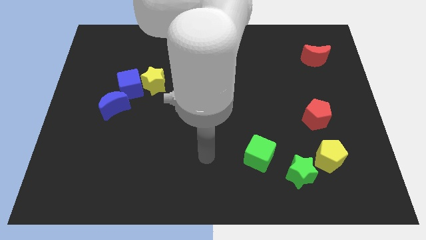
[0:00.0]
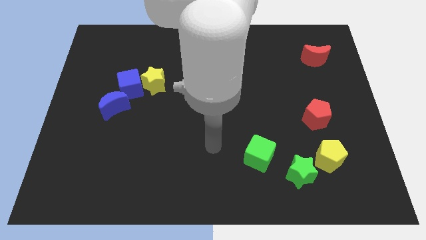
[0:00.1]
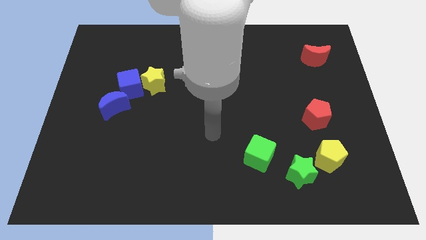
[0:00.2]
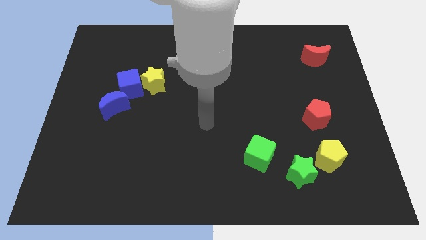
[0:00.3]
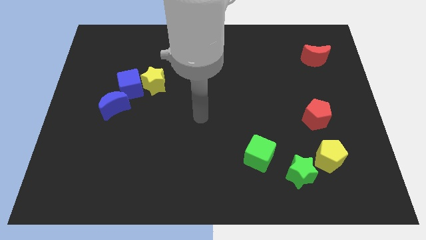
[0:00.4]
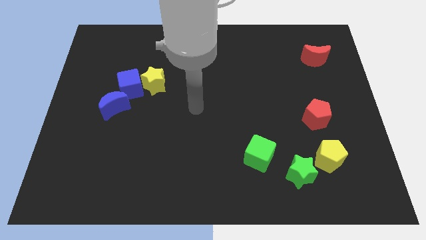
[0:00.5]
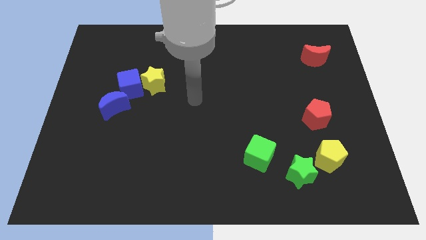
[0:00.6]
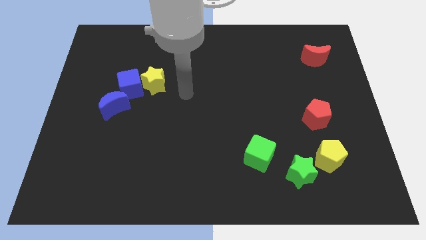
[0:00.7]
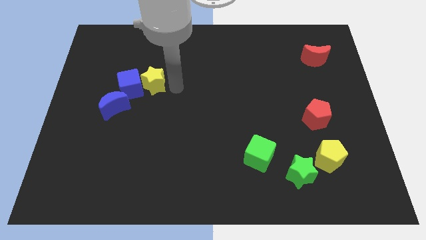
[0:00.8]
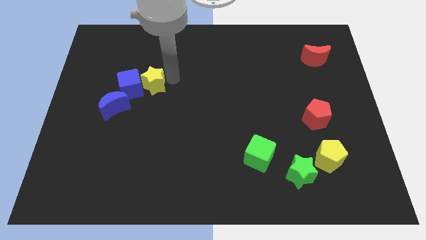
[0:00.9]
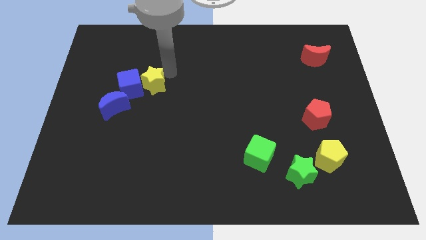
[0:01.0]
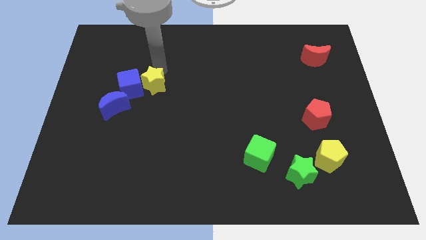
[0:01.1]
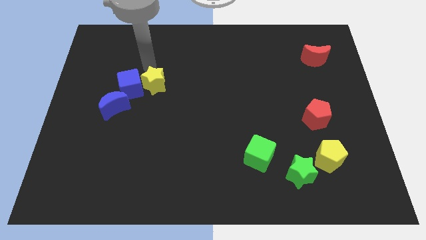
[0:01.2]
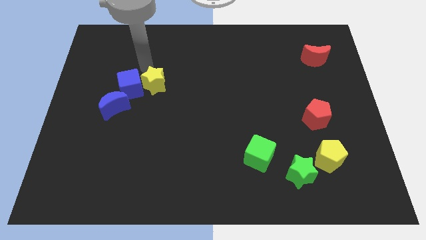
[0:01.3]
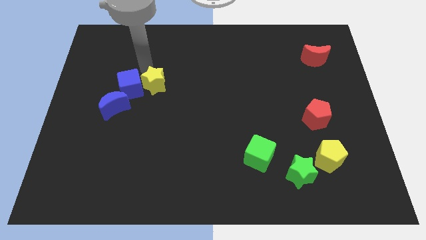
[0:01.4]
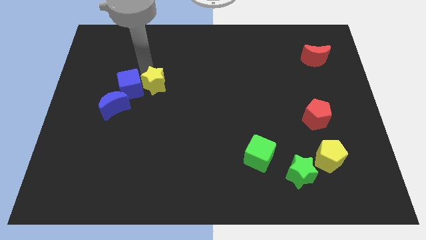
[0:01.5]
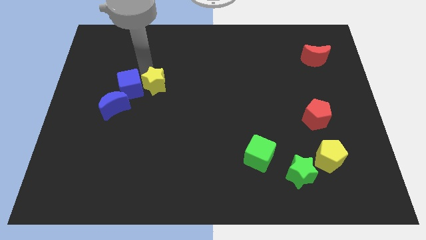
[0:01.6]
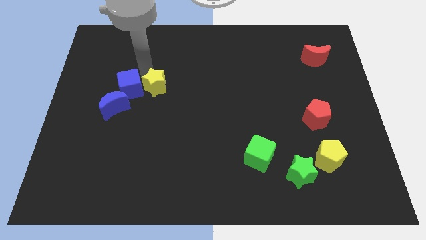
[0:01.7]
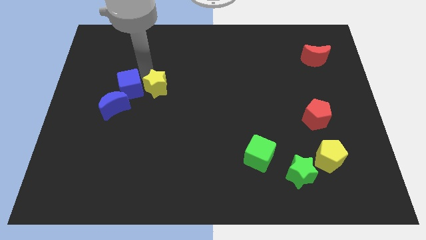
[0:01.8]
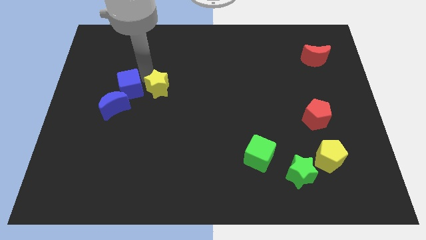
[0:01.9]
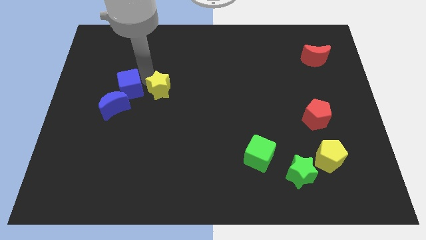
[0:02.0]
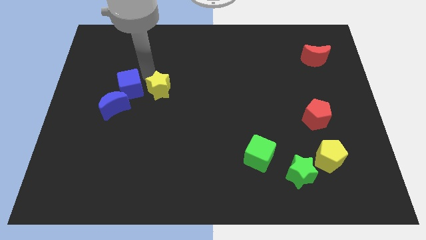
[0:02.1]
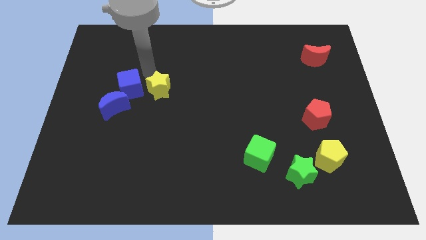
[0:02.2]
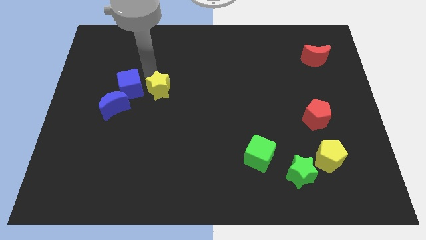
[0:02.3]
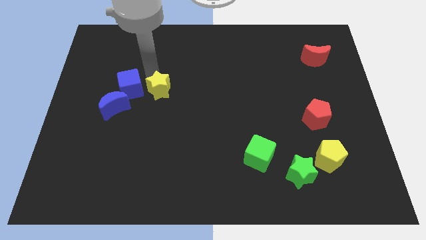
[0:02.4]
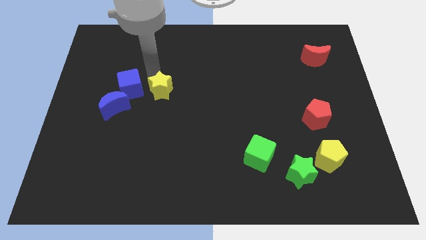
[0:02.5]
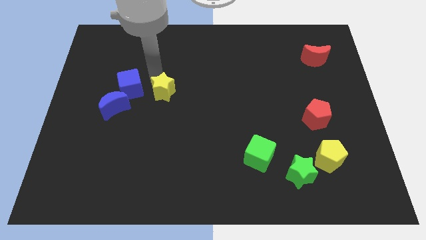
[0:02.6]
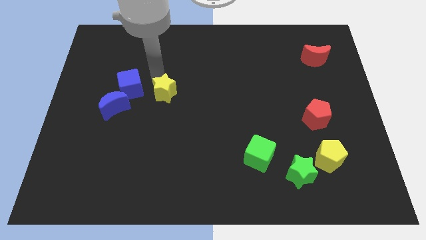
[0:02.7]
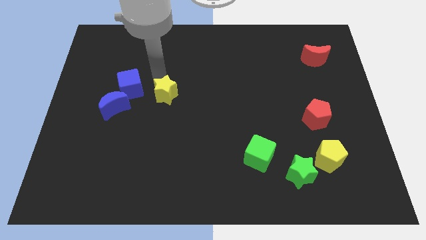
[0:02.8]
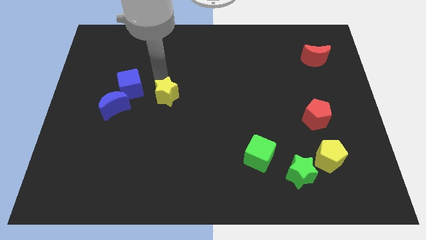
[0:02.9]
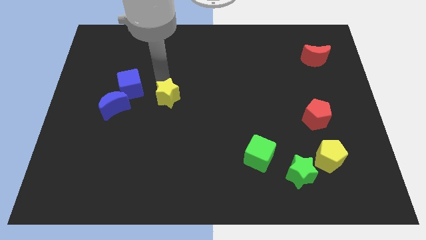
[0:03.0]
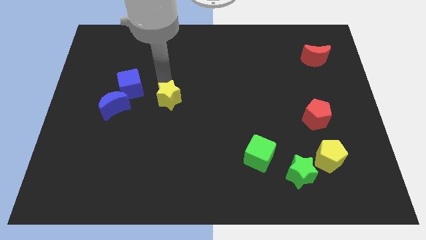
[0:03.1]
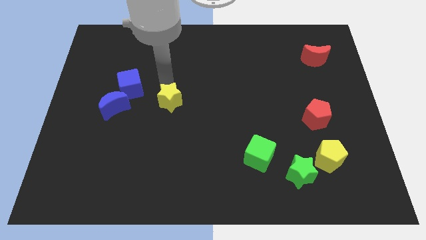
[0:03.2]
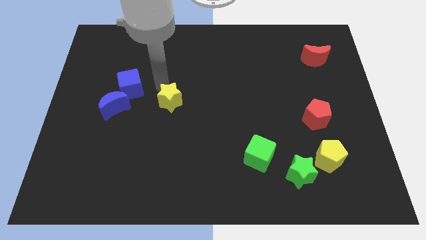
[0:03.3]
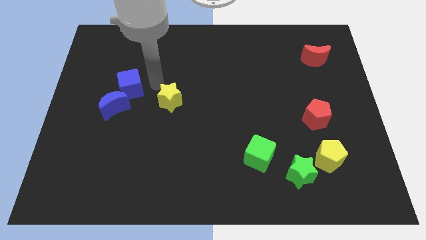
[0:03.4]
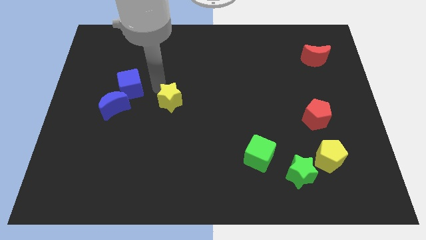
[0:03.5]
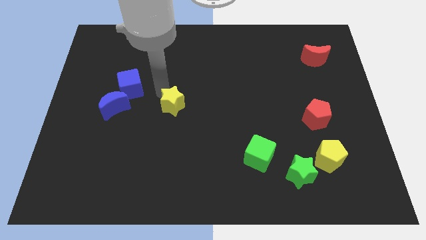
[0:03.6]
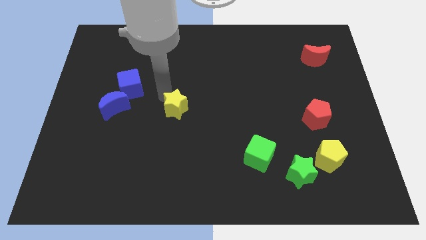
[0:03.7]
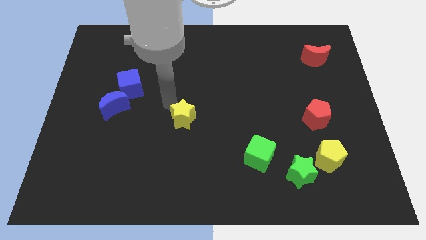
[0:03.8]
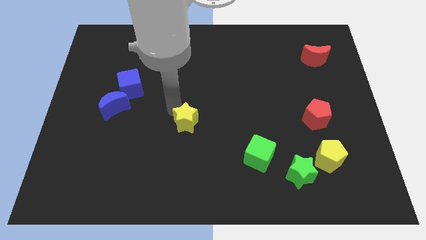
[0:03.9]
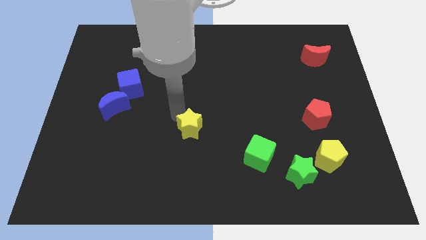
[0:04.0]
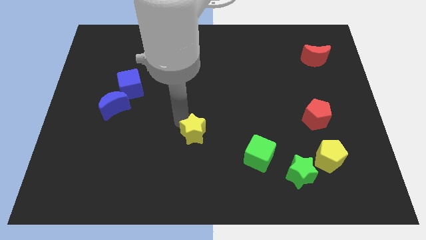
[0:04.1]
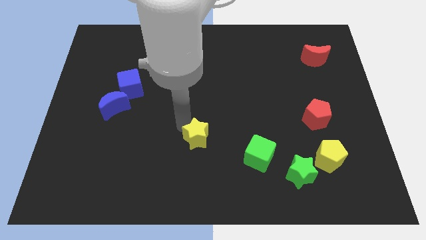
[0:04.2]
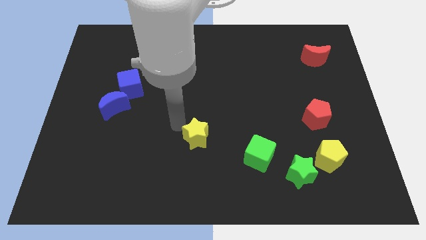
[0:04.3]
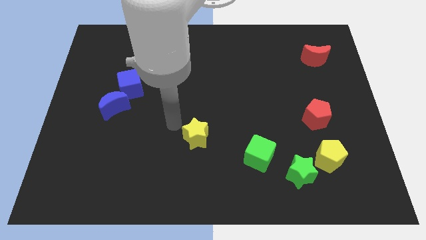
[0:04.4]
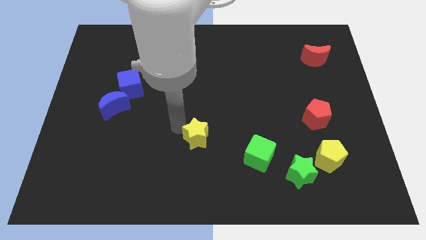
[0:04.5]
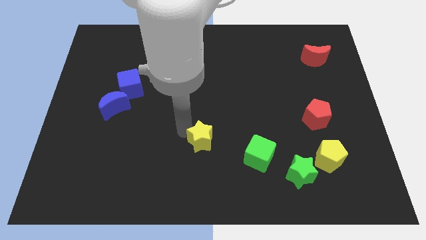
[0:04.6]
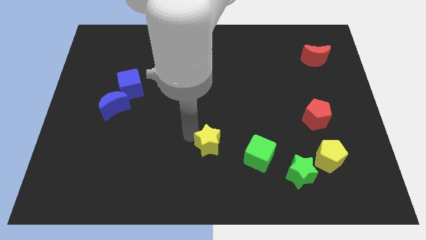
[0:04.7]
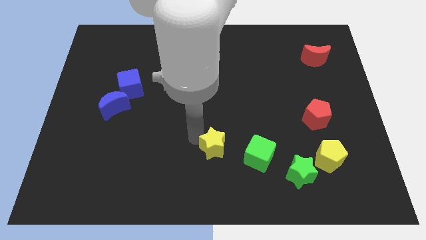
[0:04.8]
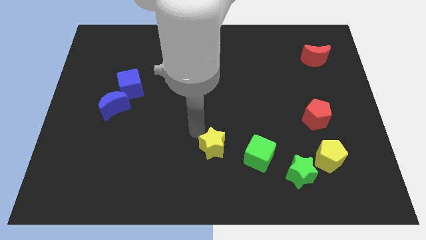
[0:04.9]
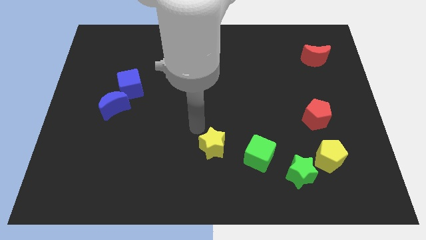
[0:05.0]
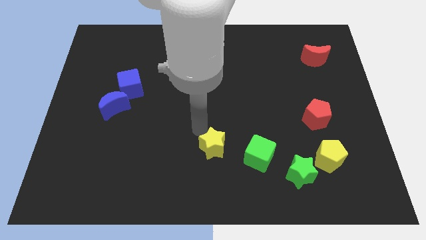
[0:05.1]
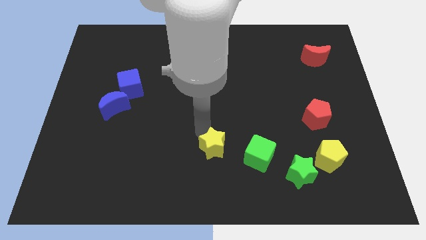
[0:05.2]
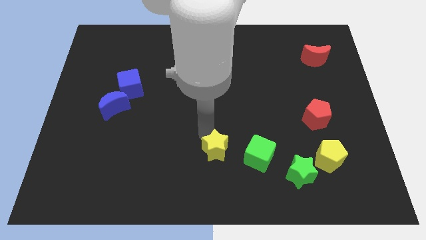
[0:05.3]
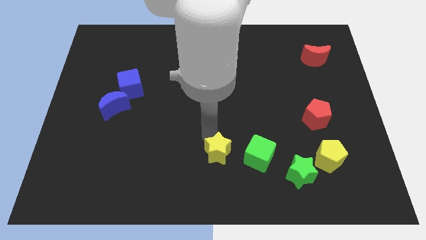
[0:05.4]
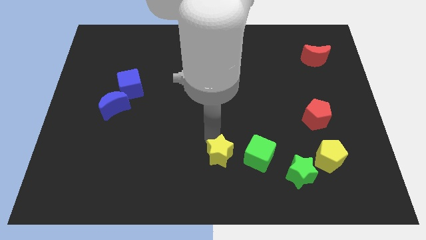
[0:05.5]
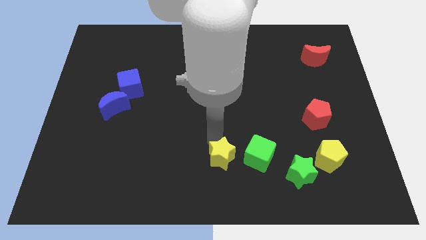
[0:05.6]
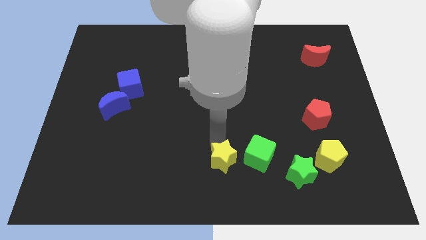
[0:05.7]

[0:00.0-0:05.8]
push the yellow star to the bottom left side of the green cube

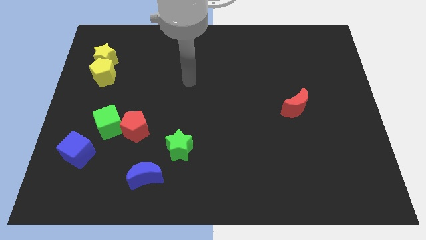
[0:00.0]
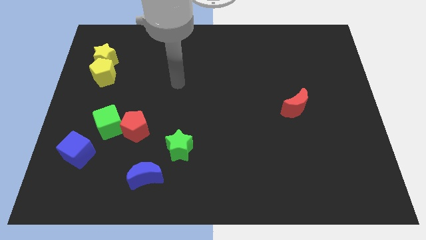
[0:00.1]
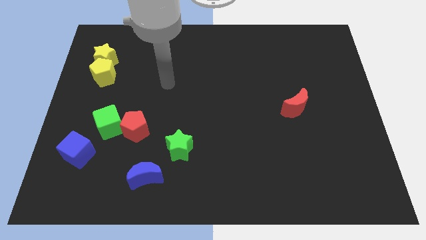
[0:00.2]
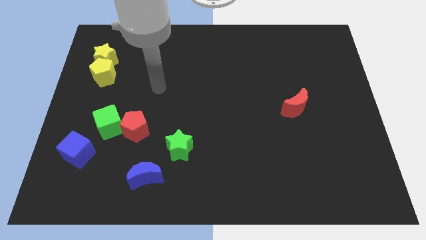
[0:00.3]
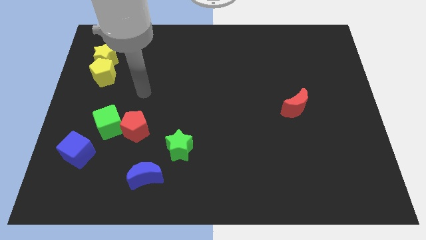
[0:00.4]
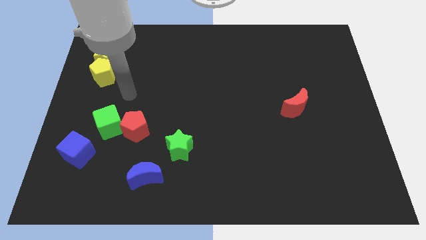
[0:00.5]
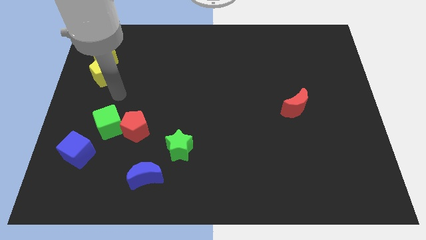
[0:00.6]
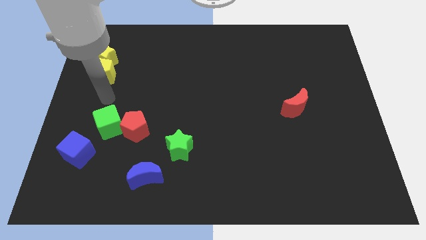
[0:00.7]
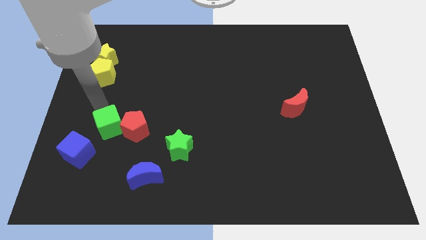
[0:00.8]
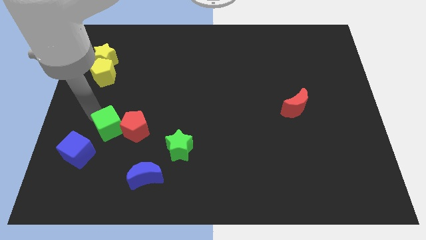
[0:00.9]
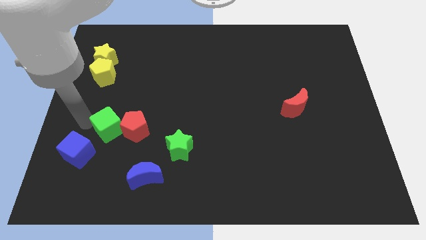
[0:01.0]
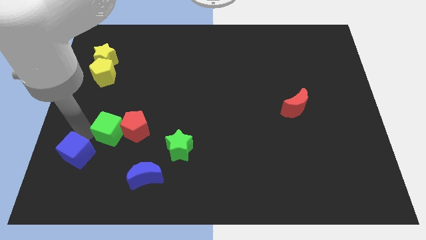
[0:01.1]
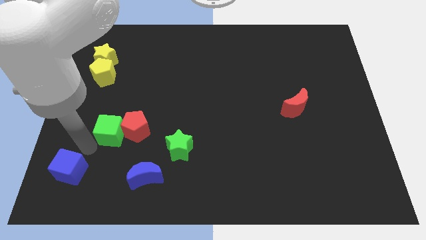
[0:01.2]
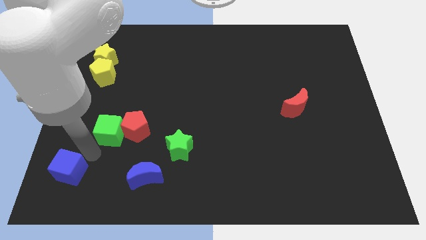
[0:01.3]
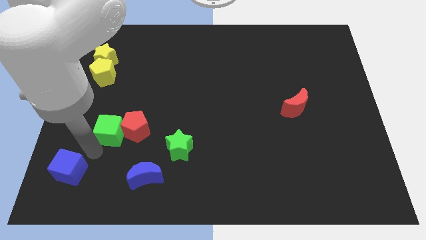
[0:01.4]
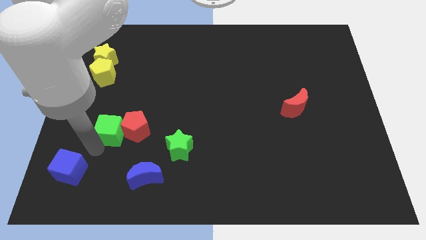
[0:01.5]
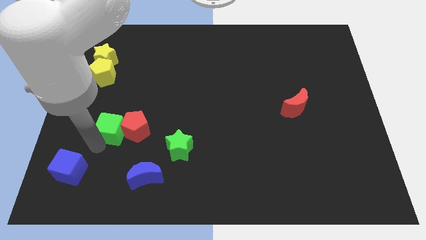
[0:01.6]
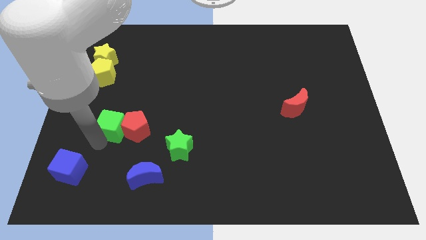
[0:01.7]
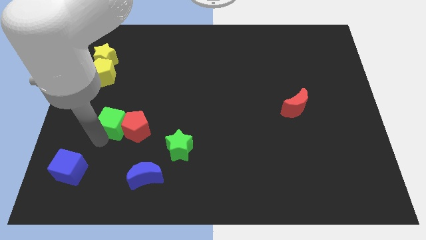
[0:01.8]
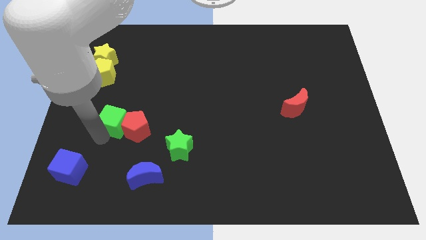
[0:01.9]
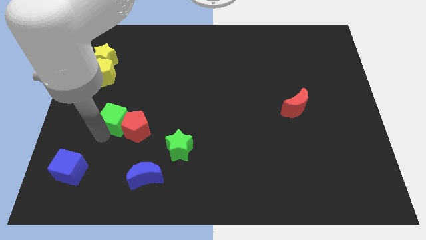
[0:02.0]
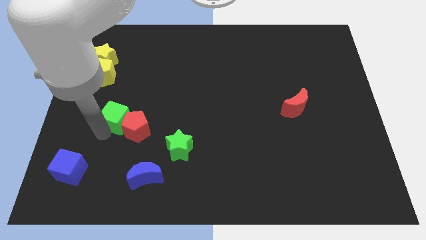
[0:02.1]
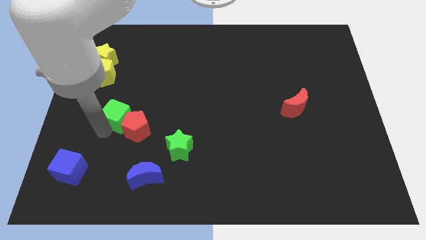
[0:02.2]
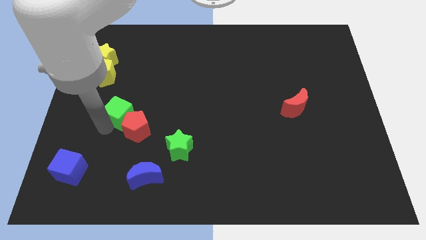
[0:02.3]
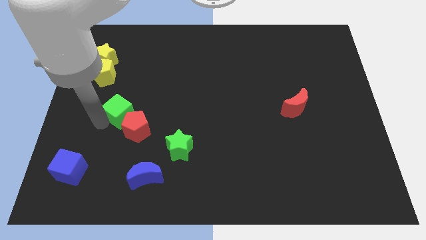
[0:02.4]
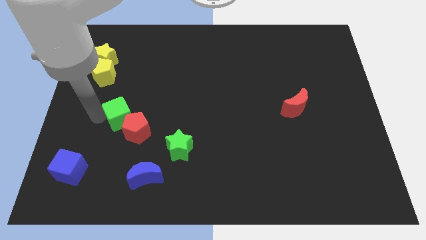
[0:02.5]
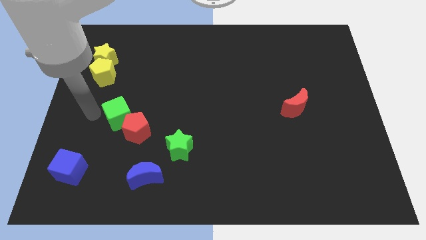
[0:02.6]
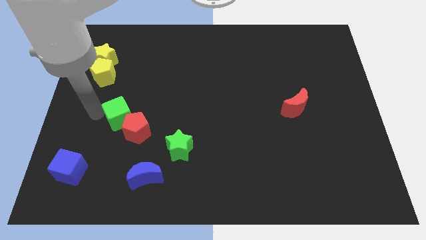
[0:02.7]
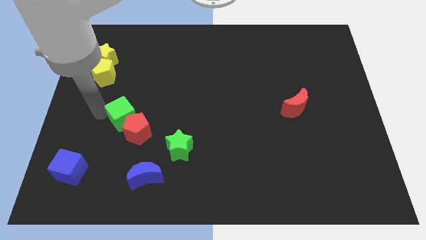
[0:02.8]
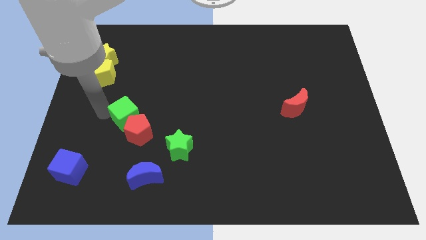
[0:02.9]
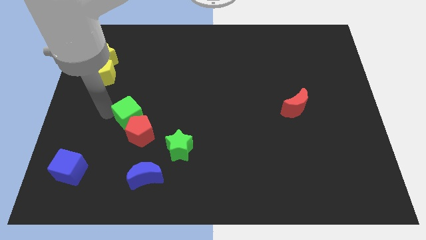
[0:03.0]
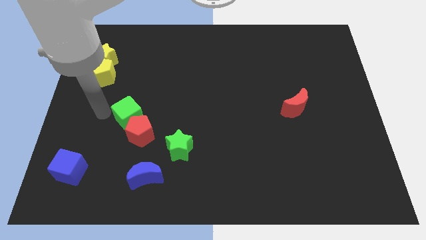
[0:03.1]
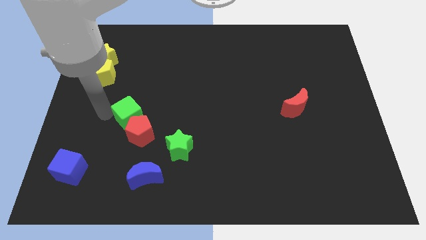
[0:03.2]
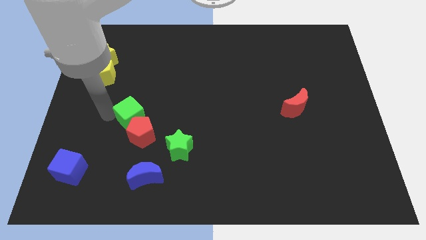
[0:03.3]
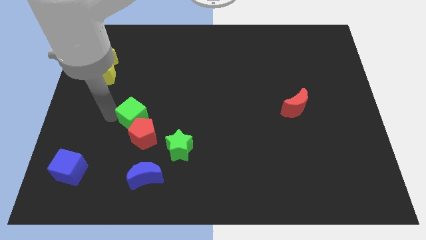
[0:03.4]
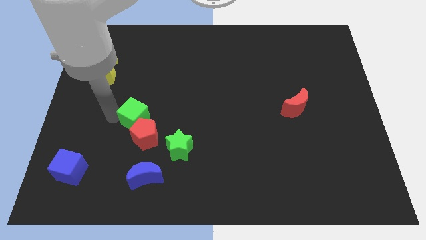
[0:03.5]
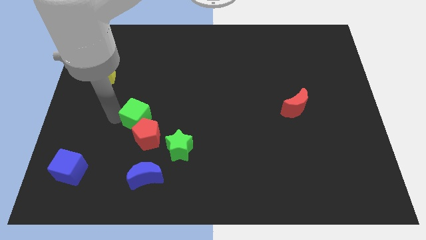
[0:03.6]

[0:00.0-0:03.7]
move the green cube to the top side of the blue moon
